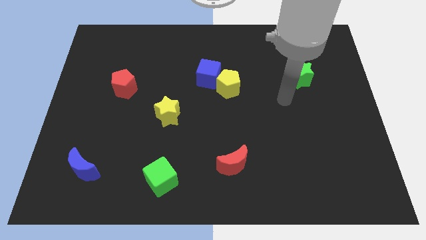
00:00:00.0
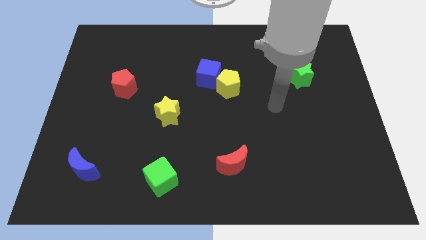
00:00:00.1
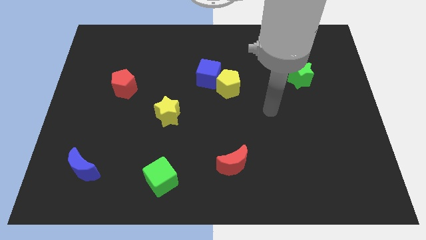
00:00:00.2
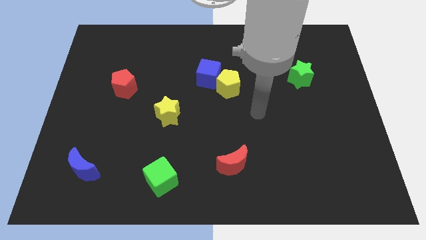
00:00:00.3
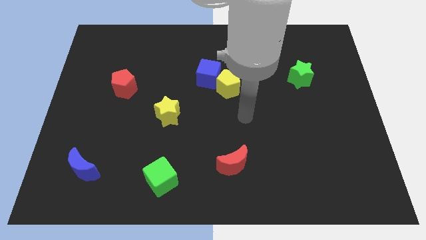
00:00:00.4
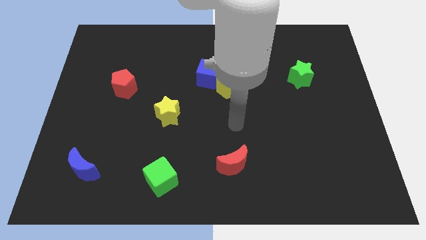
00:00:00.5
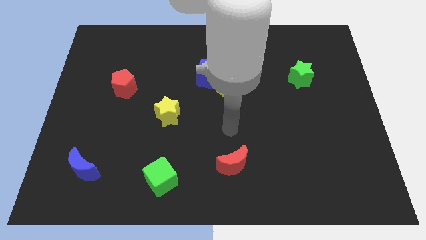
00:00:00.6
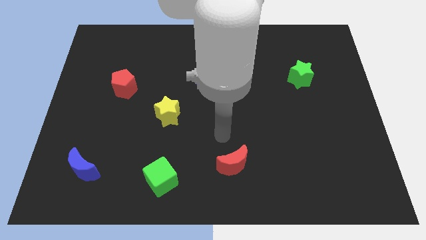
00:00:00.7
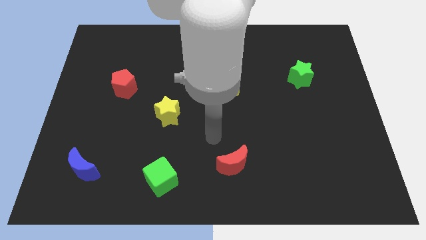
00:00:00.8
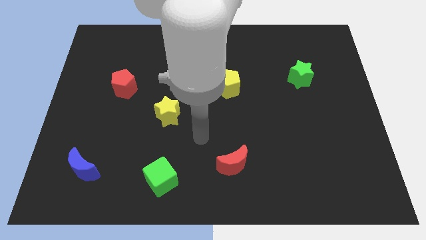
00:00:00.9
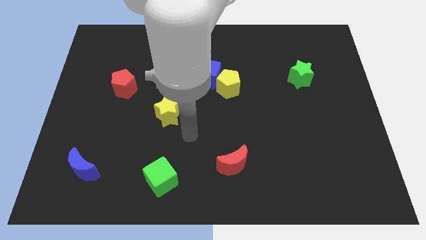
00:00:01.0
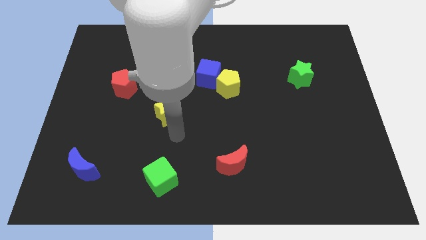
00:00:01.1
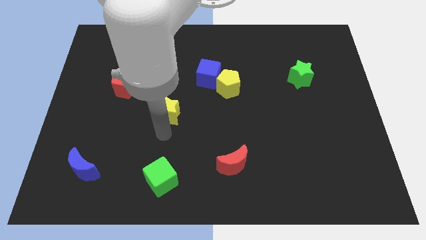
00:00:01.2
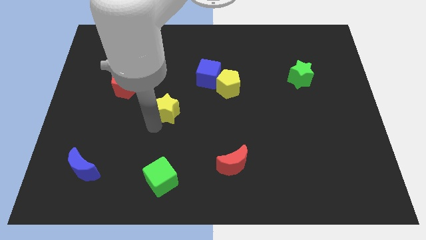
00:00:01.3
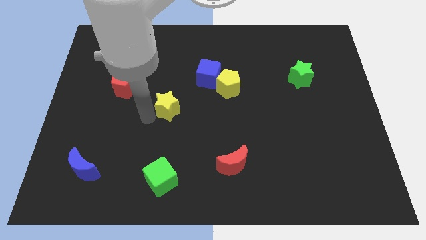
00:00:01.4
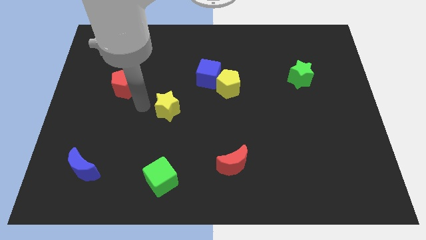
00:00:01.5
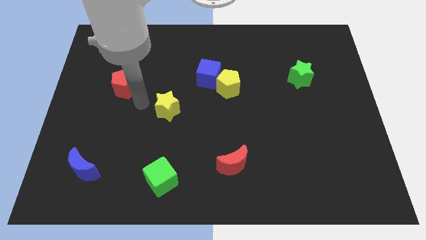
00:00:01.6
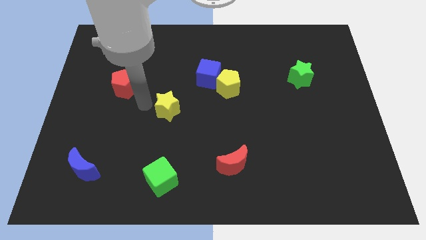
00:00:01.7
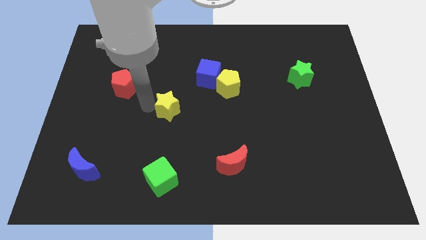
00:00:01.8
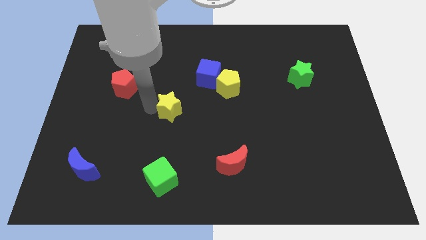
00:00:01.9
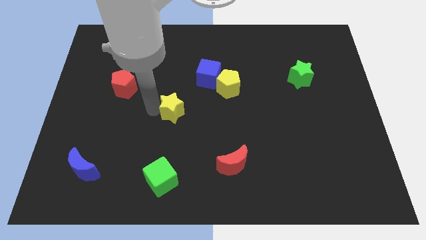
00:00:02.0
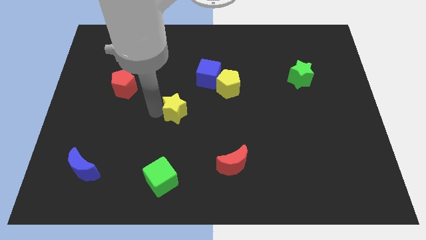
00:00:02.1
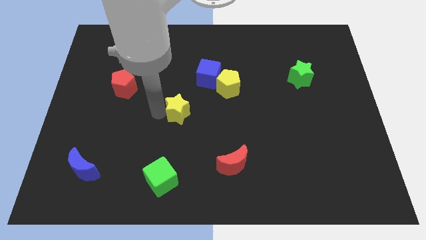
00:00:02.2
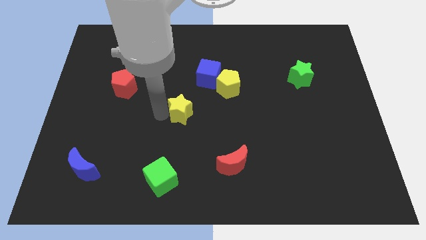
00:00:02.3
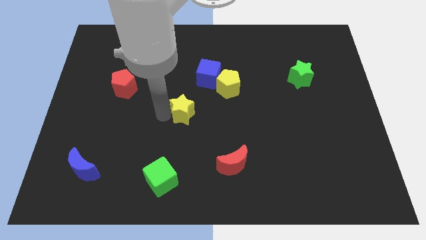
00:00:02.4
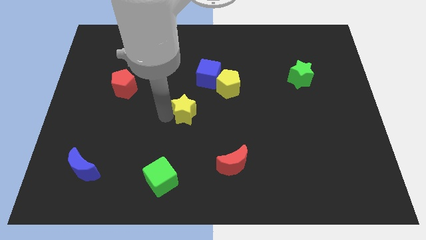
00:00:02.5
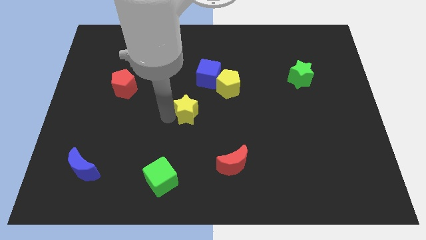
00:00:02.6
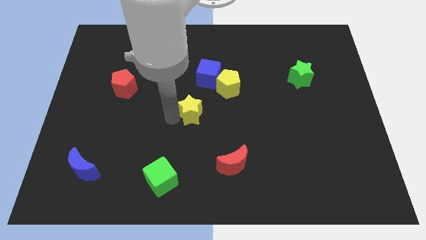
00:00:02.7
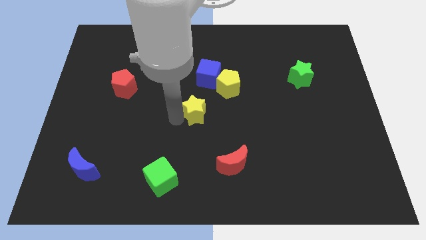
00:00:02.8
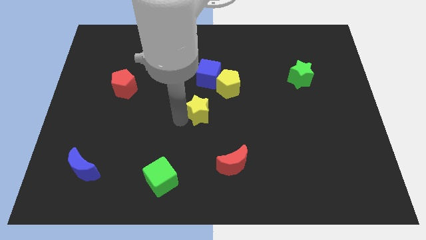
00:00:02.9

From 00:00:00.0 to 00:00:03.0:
move the yellow star right somewhat

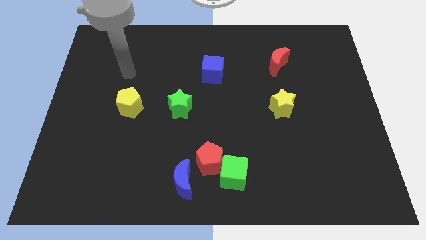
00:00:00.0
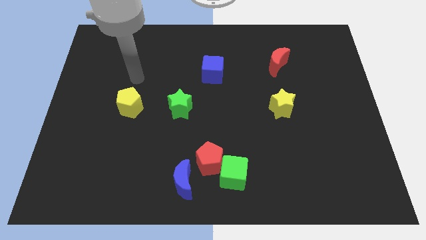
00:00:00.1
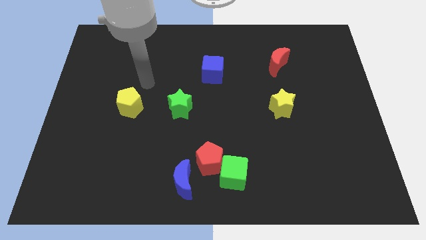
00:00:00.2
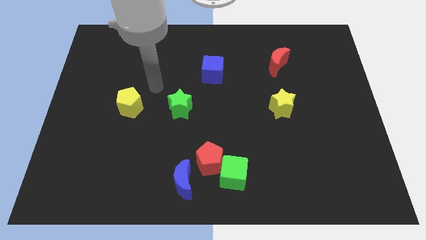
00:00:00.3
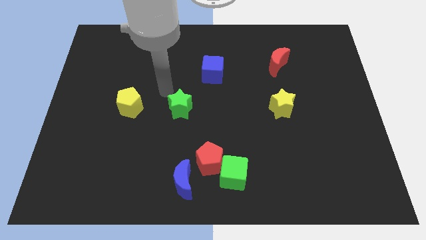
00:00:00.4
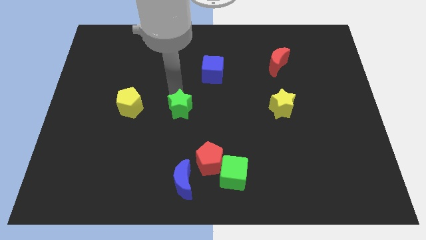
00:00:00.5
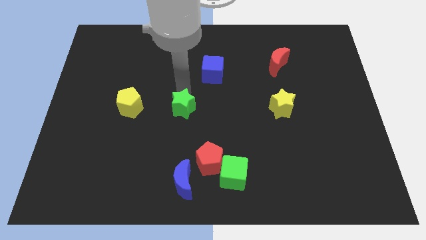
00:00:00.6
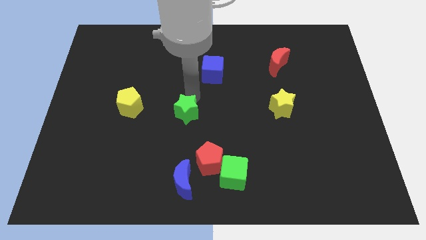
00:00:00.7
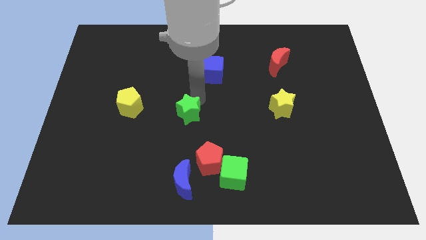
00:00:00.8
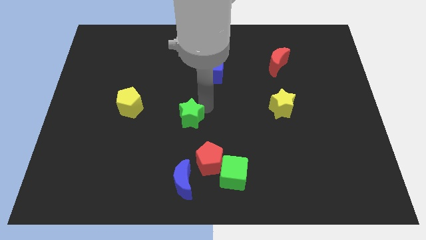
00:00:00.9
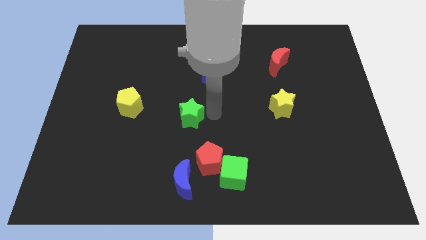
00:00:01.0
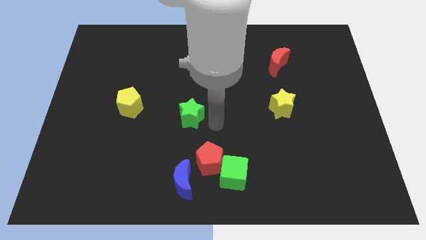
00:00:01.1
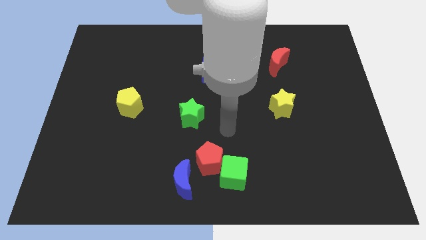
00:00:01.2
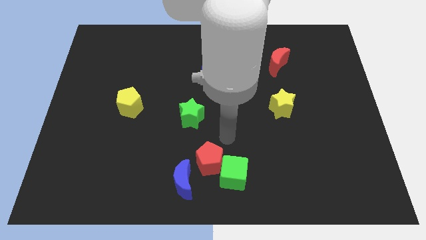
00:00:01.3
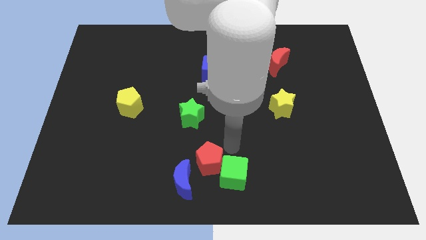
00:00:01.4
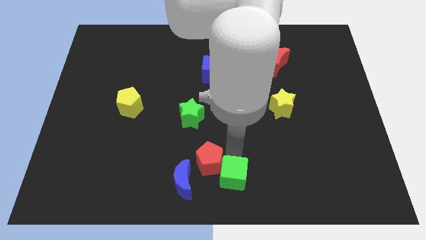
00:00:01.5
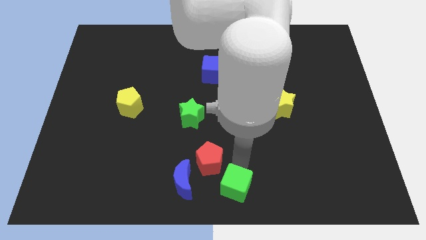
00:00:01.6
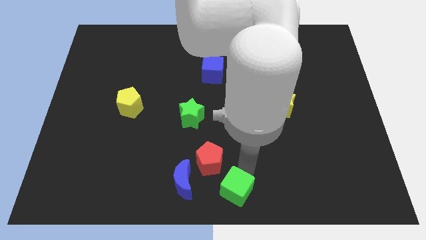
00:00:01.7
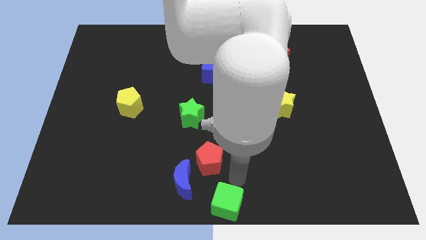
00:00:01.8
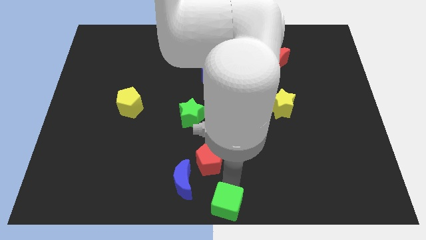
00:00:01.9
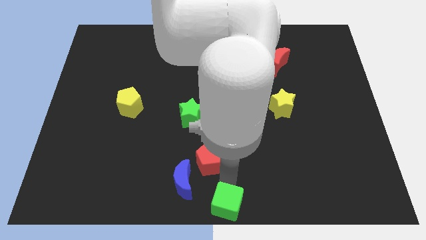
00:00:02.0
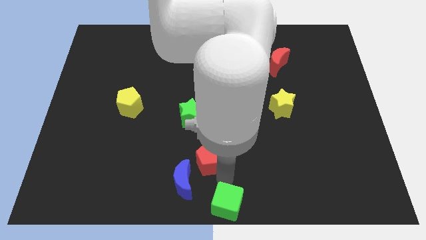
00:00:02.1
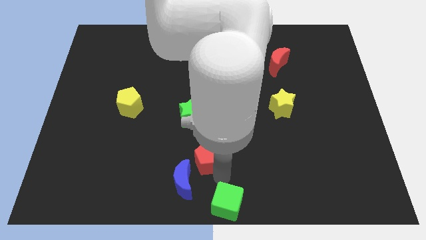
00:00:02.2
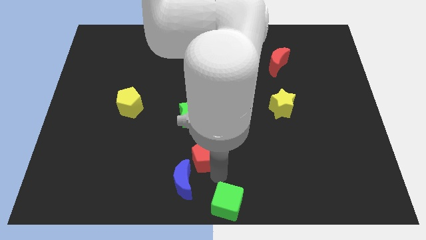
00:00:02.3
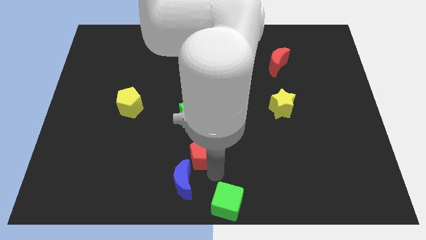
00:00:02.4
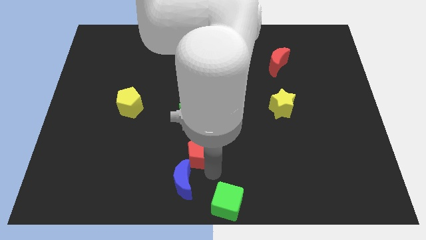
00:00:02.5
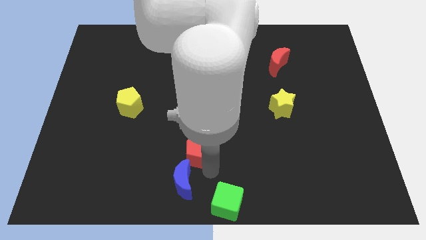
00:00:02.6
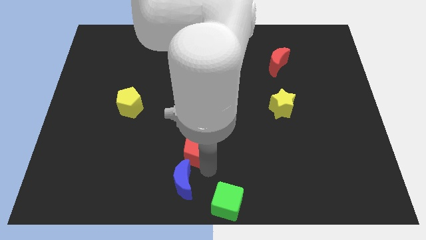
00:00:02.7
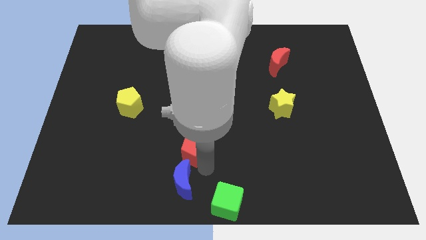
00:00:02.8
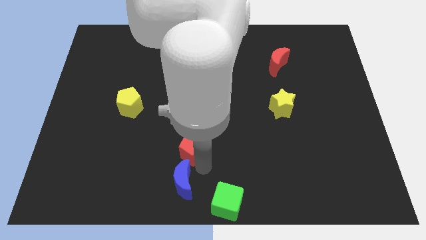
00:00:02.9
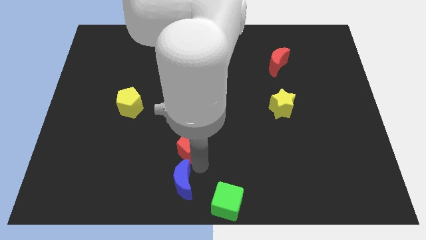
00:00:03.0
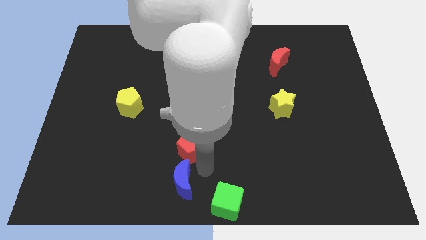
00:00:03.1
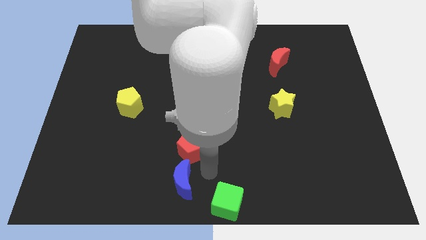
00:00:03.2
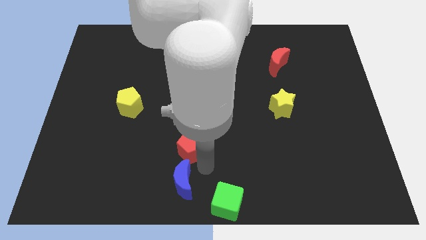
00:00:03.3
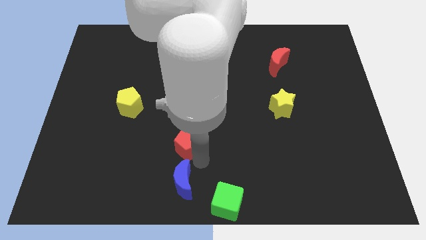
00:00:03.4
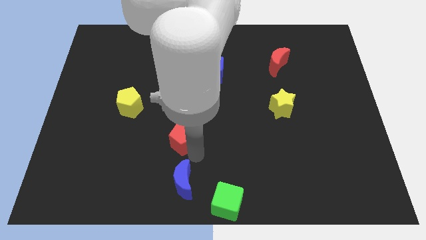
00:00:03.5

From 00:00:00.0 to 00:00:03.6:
push the red pentagon a little bit up and to the left diagonally

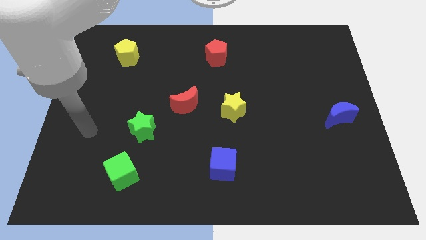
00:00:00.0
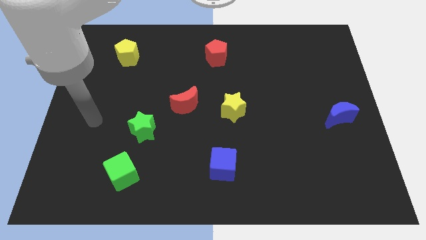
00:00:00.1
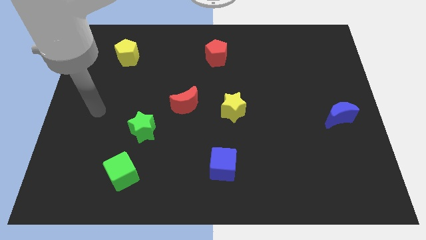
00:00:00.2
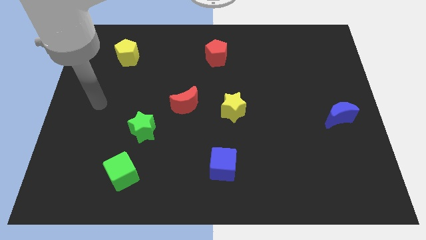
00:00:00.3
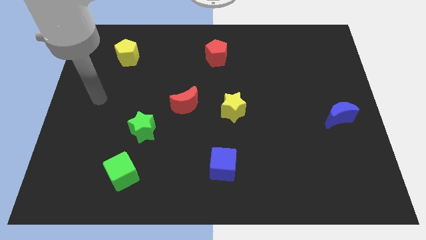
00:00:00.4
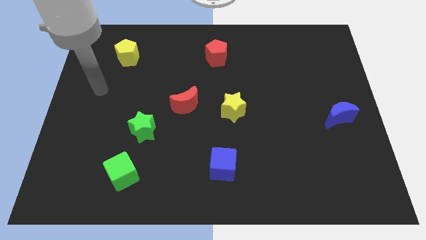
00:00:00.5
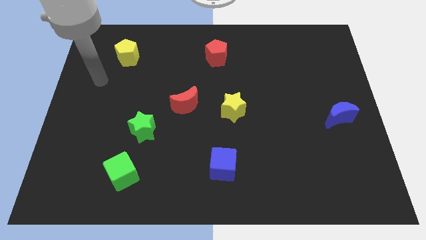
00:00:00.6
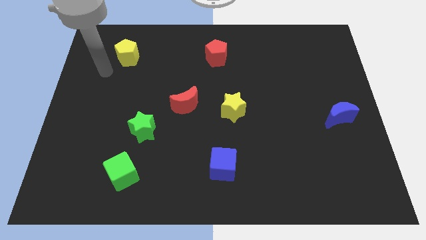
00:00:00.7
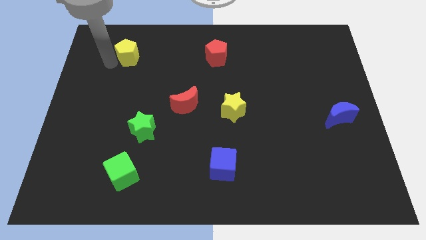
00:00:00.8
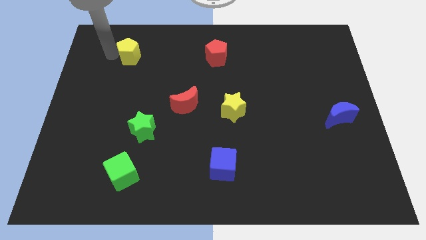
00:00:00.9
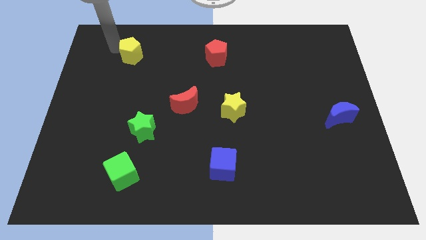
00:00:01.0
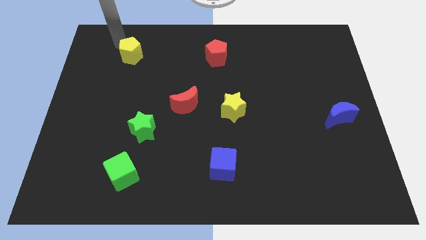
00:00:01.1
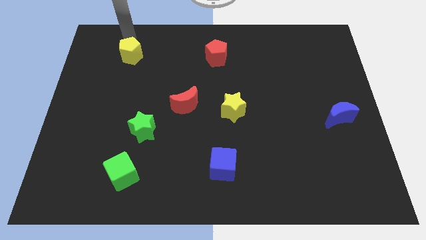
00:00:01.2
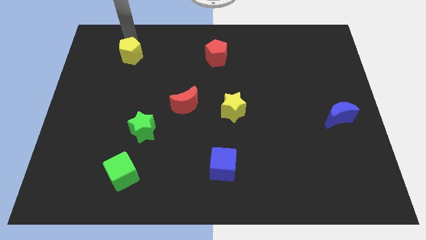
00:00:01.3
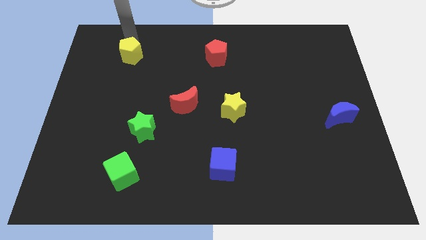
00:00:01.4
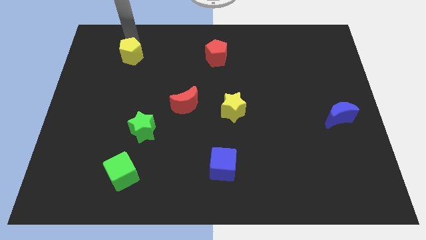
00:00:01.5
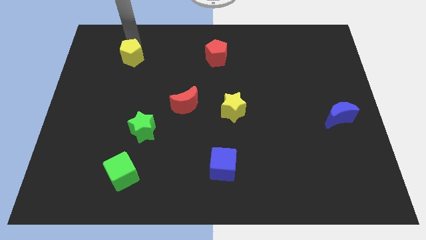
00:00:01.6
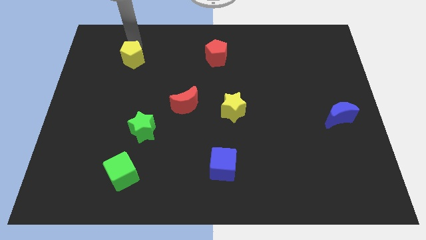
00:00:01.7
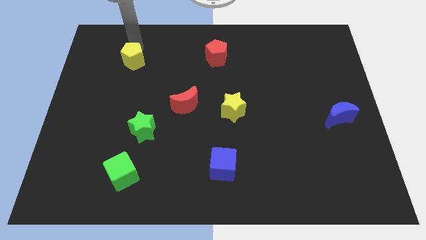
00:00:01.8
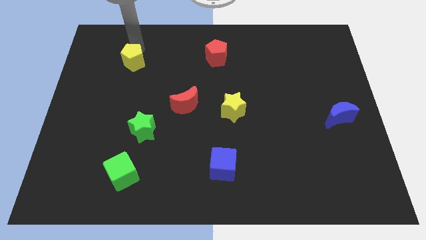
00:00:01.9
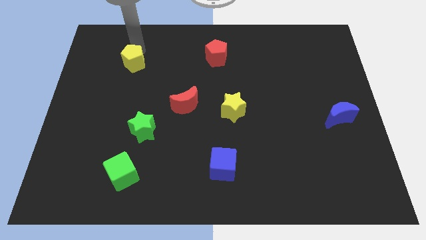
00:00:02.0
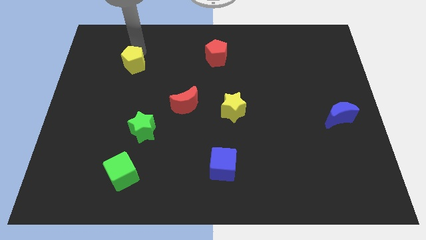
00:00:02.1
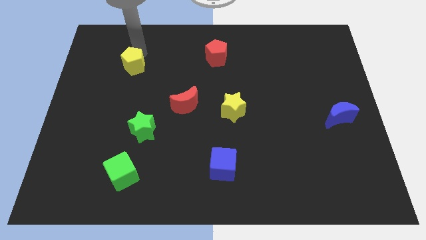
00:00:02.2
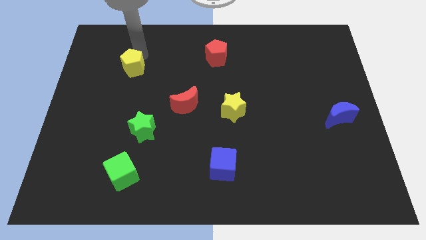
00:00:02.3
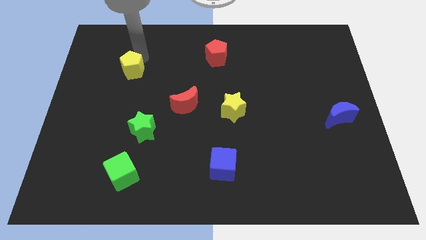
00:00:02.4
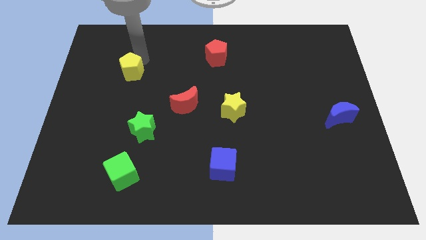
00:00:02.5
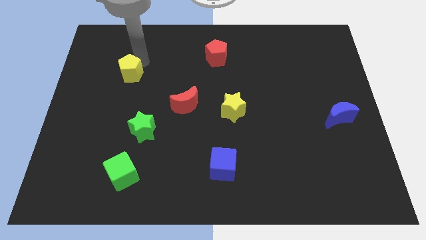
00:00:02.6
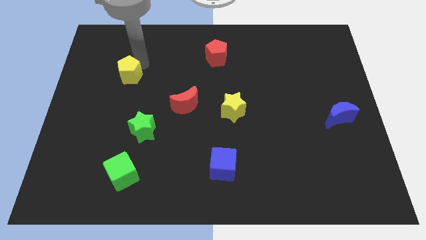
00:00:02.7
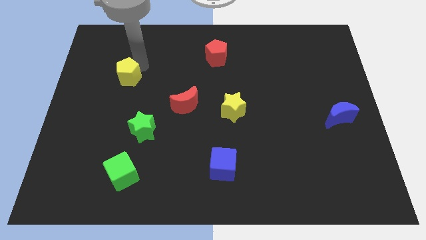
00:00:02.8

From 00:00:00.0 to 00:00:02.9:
move the yellow pentagon somewhat downwards
